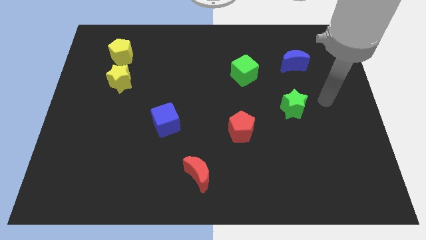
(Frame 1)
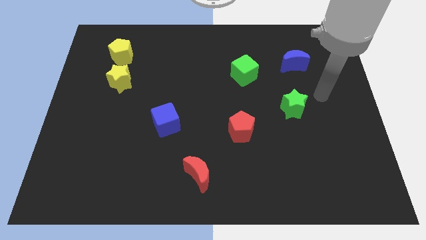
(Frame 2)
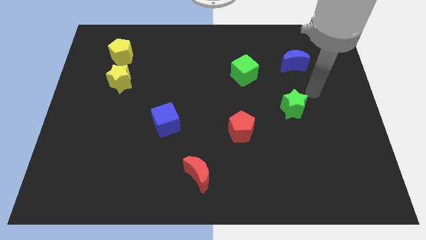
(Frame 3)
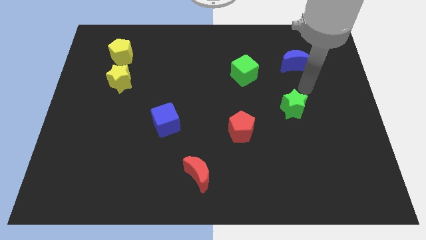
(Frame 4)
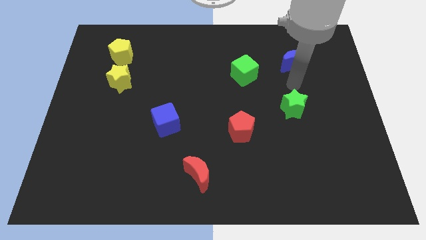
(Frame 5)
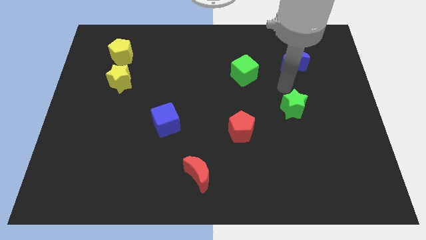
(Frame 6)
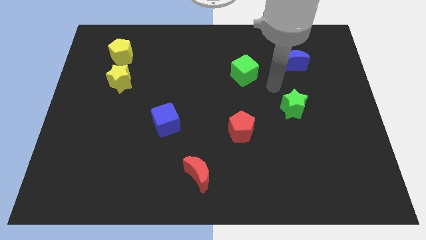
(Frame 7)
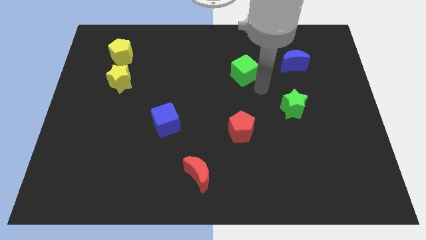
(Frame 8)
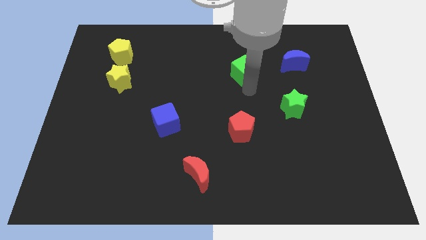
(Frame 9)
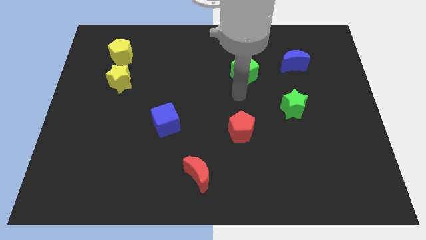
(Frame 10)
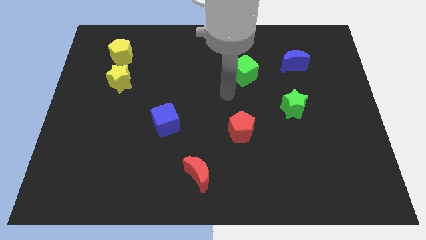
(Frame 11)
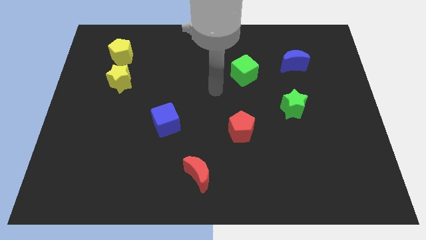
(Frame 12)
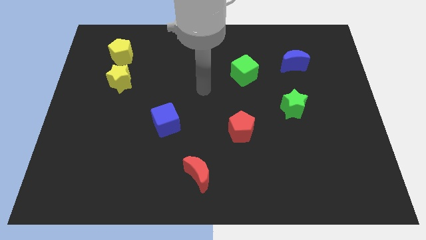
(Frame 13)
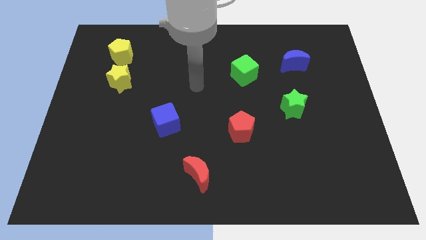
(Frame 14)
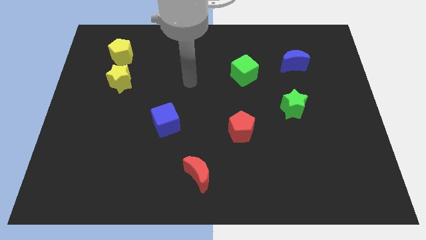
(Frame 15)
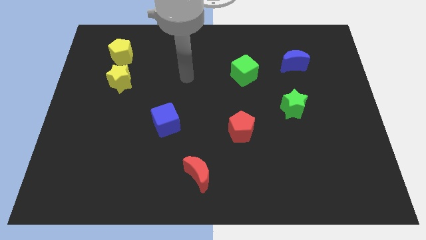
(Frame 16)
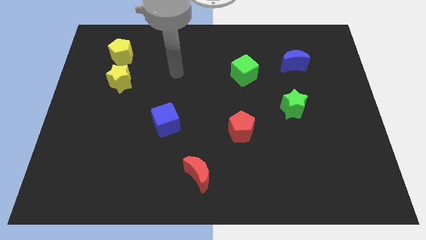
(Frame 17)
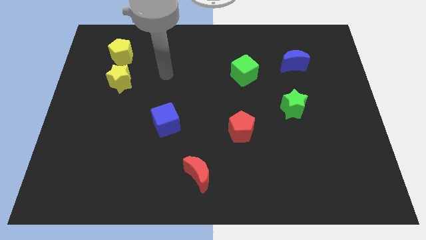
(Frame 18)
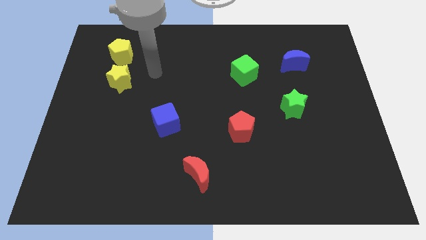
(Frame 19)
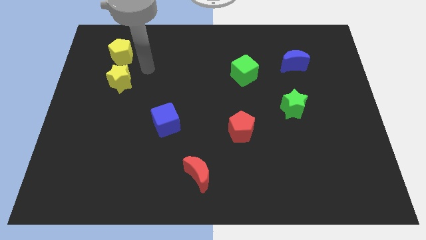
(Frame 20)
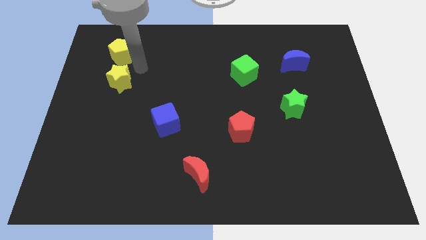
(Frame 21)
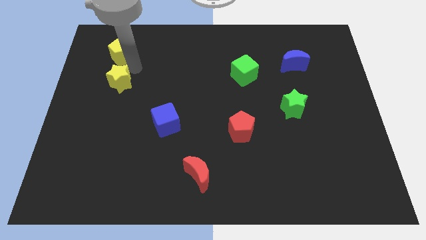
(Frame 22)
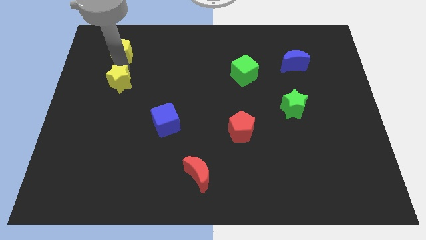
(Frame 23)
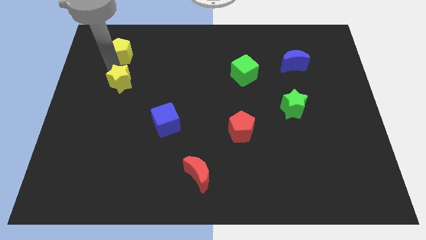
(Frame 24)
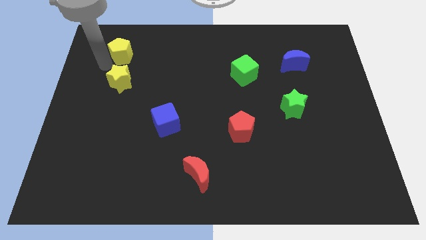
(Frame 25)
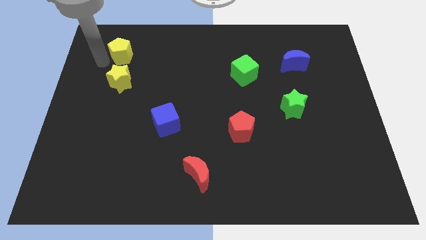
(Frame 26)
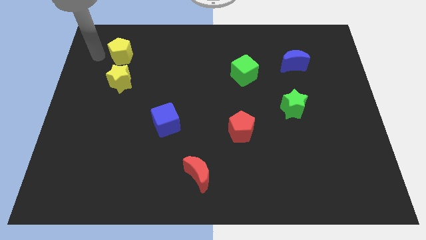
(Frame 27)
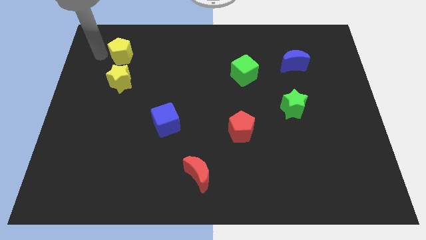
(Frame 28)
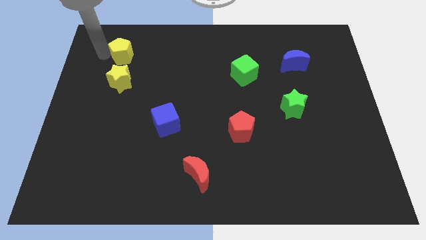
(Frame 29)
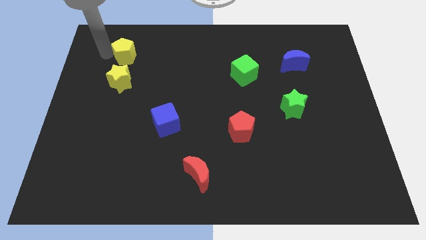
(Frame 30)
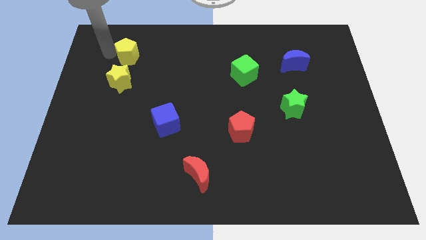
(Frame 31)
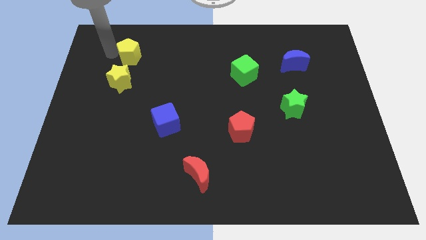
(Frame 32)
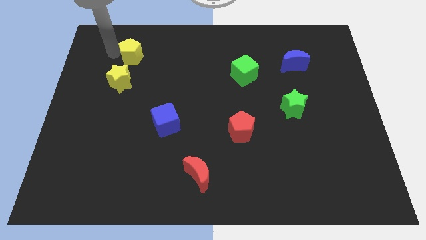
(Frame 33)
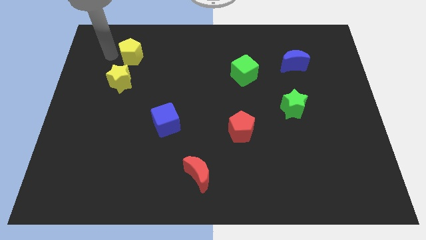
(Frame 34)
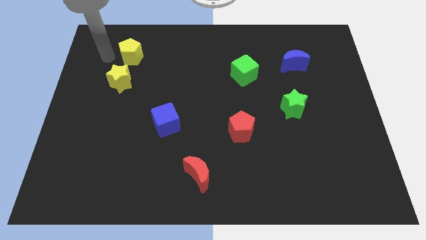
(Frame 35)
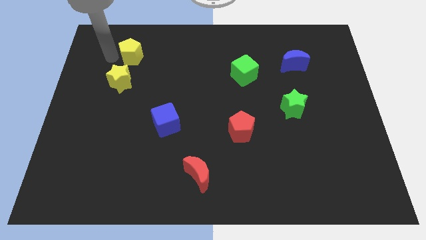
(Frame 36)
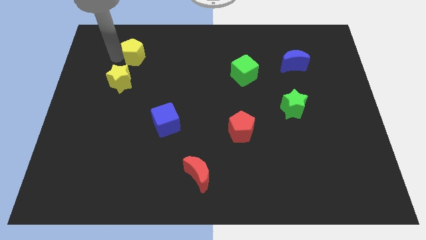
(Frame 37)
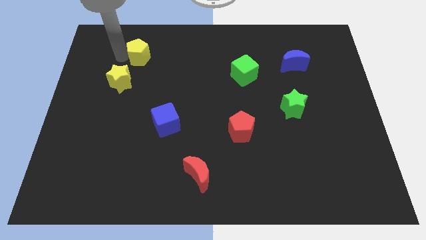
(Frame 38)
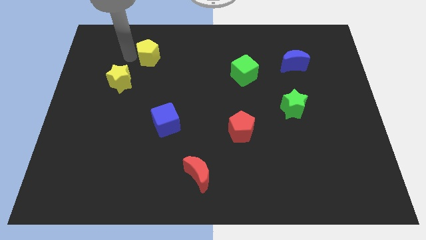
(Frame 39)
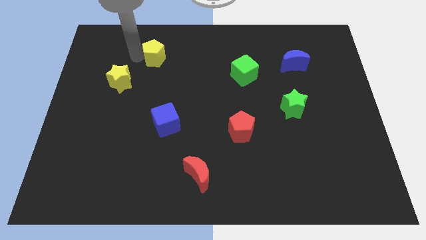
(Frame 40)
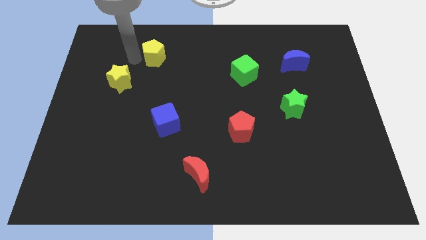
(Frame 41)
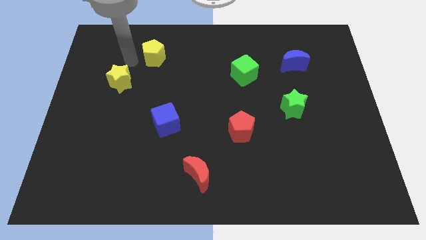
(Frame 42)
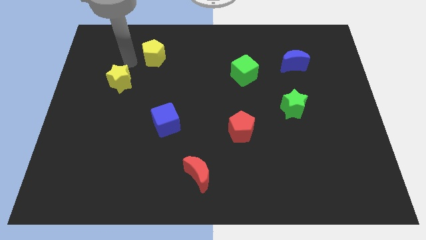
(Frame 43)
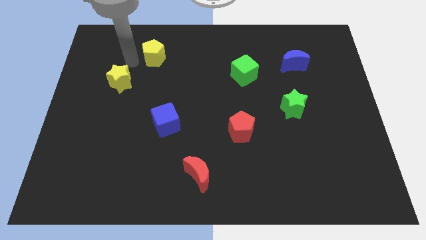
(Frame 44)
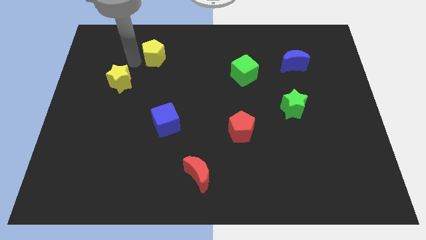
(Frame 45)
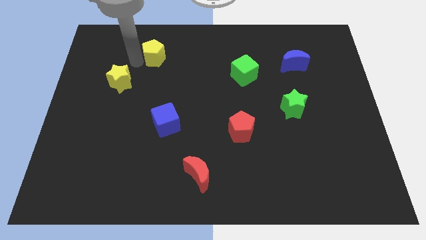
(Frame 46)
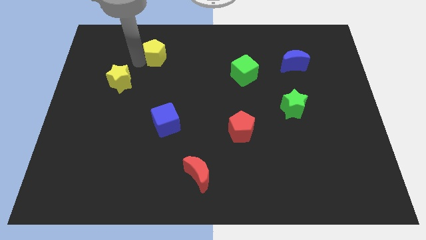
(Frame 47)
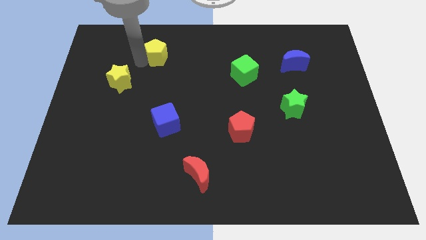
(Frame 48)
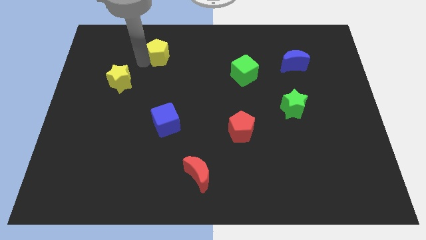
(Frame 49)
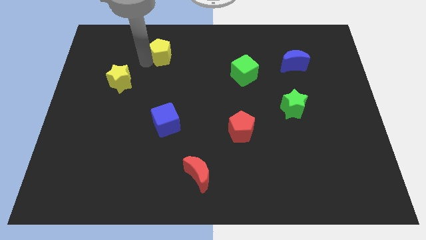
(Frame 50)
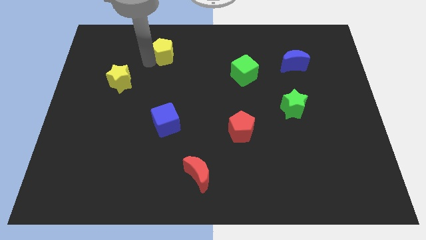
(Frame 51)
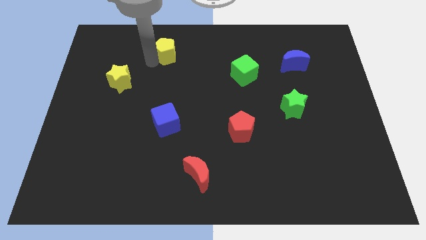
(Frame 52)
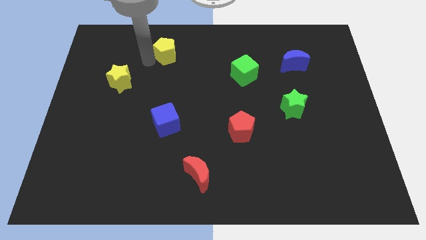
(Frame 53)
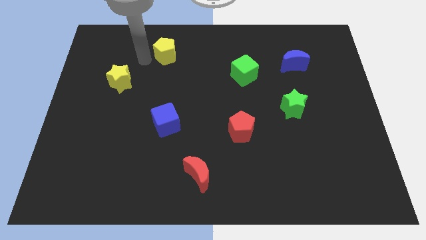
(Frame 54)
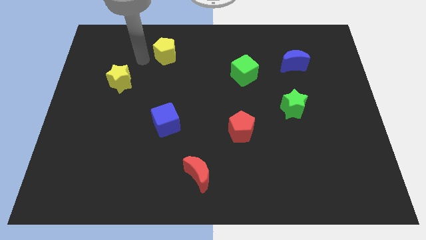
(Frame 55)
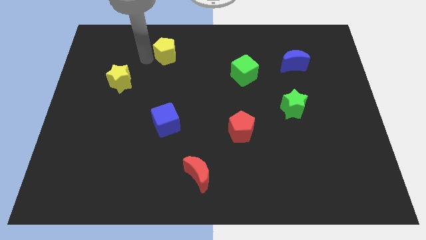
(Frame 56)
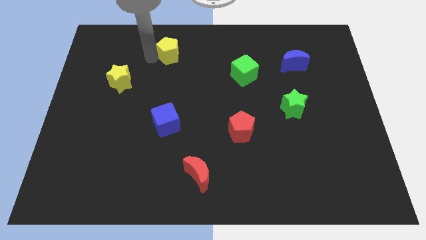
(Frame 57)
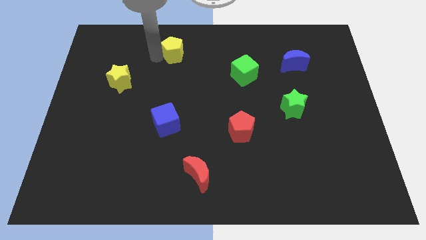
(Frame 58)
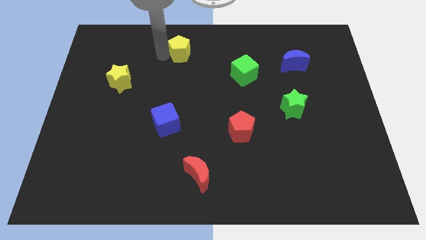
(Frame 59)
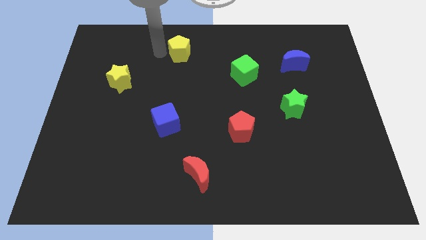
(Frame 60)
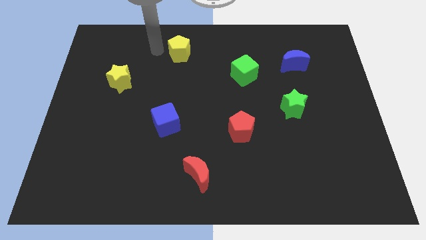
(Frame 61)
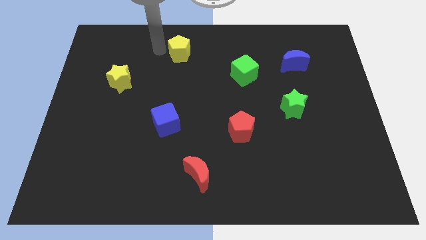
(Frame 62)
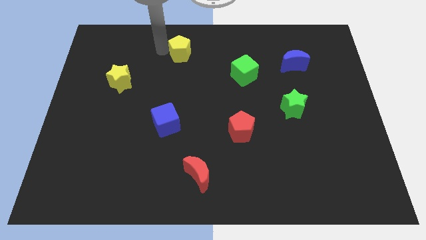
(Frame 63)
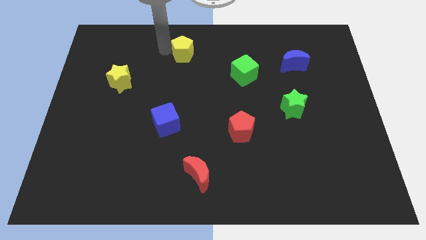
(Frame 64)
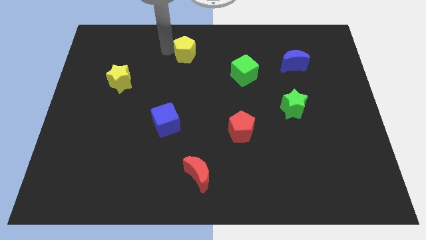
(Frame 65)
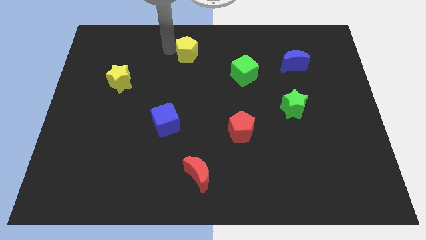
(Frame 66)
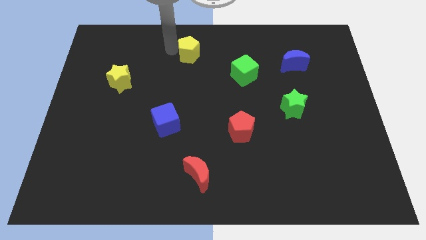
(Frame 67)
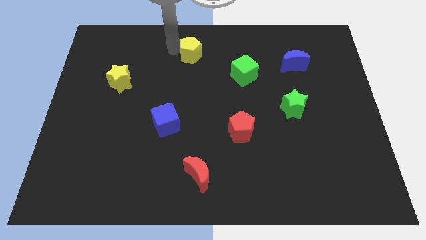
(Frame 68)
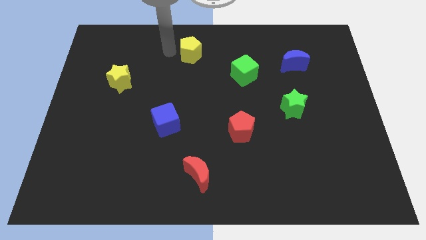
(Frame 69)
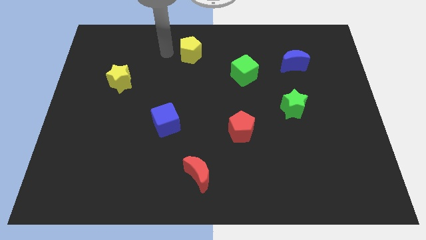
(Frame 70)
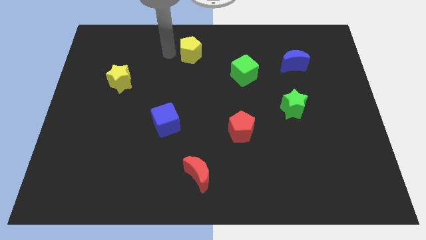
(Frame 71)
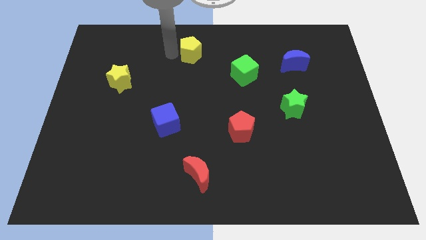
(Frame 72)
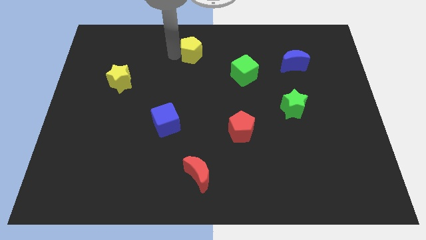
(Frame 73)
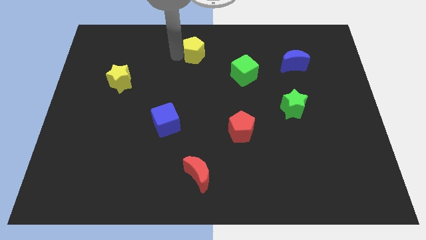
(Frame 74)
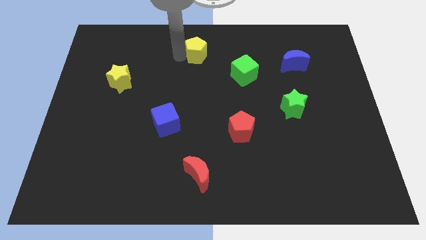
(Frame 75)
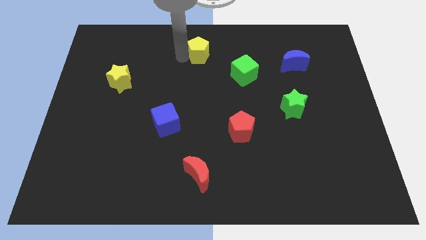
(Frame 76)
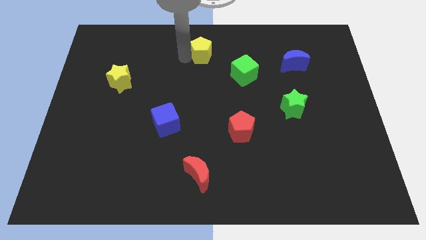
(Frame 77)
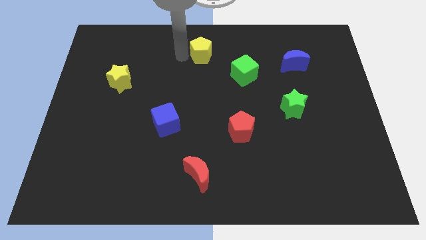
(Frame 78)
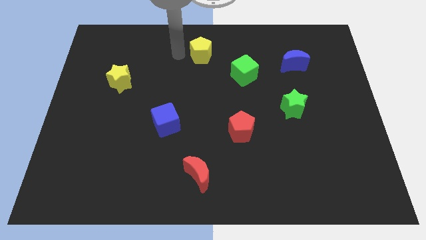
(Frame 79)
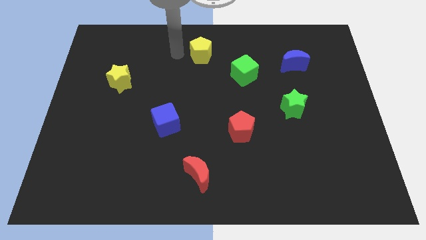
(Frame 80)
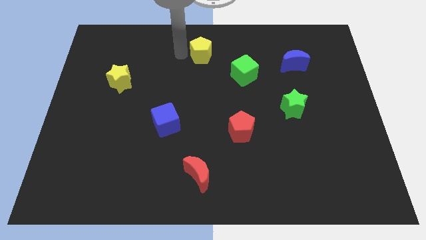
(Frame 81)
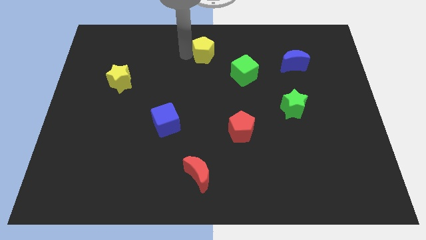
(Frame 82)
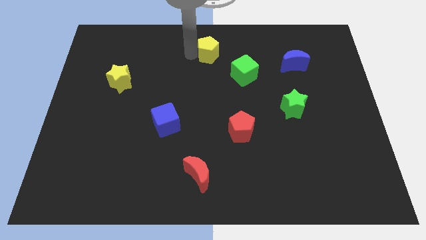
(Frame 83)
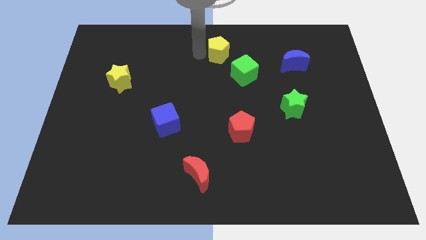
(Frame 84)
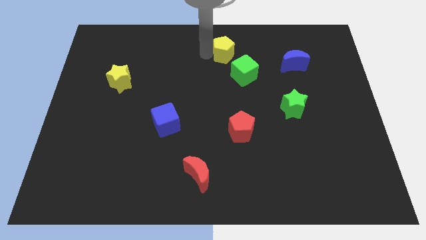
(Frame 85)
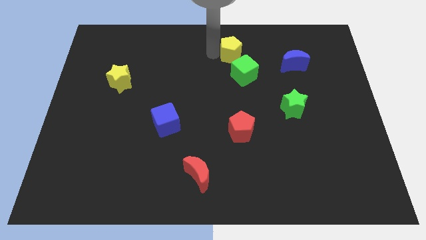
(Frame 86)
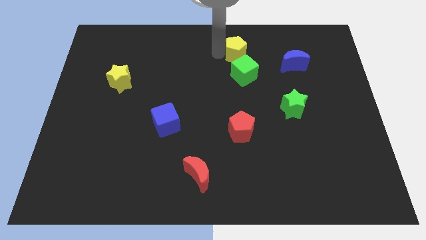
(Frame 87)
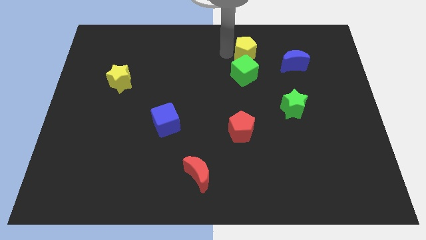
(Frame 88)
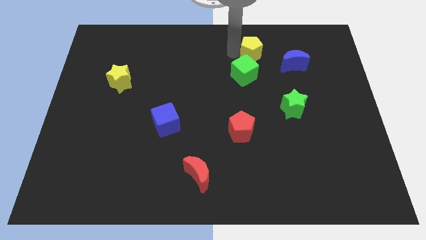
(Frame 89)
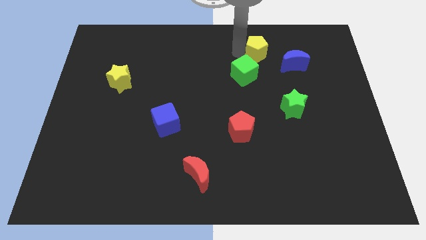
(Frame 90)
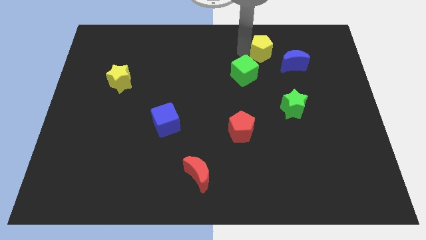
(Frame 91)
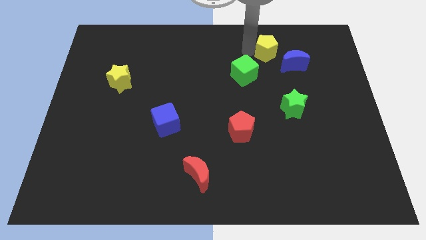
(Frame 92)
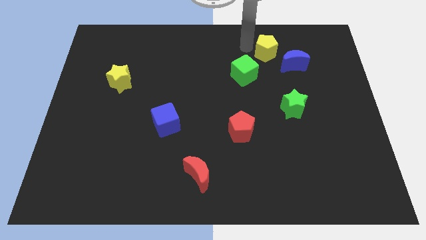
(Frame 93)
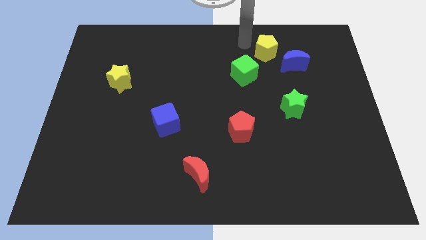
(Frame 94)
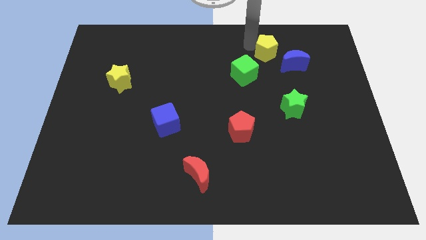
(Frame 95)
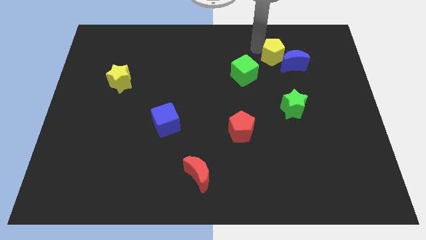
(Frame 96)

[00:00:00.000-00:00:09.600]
push the yellow pentagon next to the blue moon
